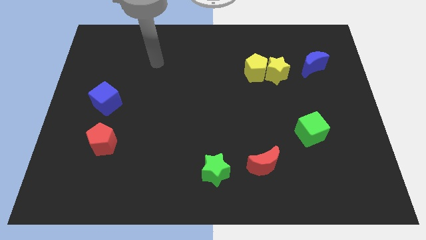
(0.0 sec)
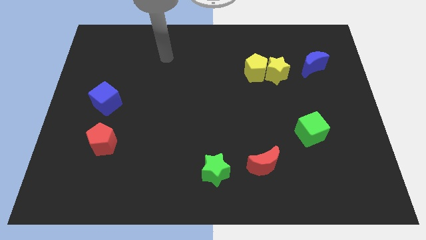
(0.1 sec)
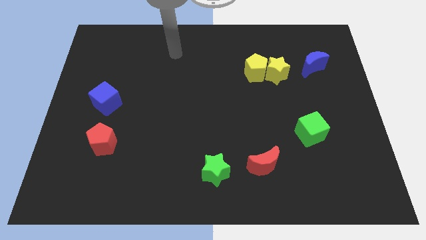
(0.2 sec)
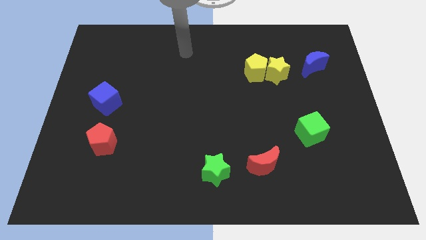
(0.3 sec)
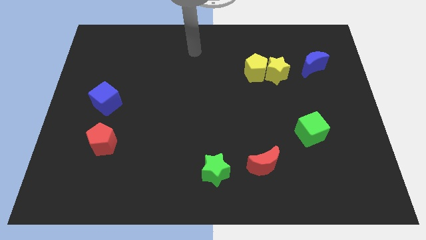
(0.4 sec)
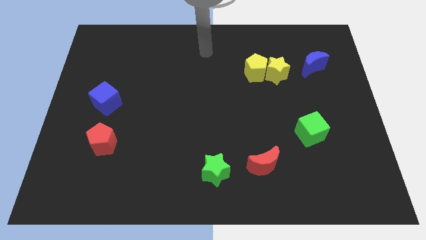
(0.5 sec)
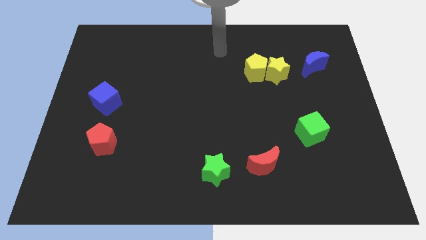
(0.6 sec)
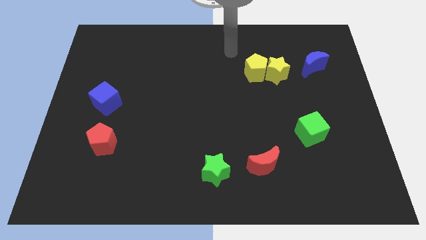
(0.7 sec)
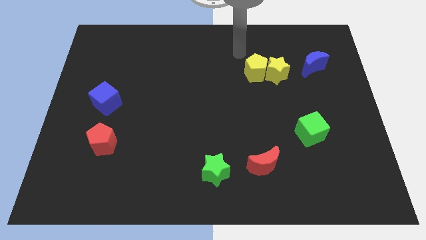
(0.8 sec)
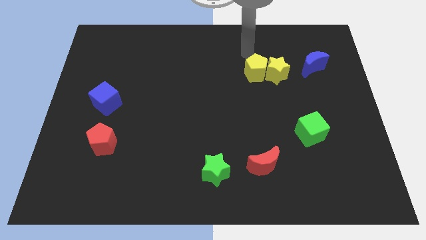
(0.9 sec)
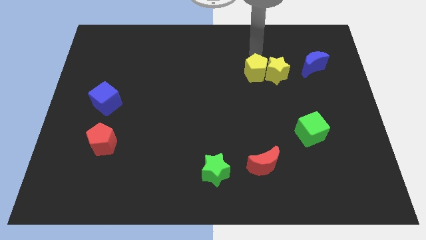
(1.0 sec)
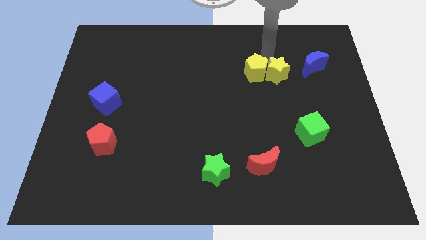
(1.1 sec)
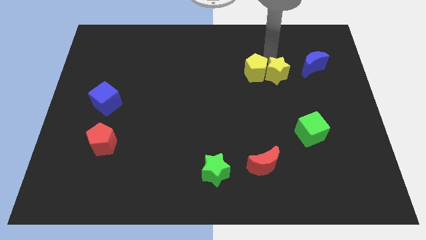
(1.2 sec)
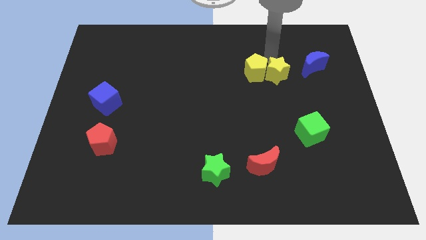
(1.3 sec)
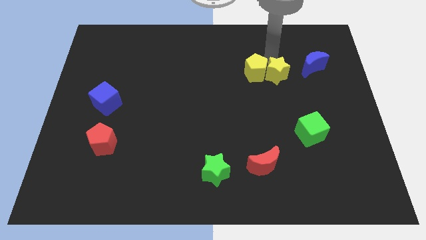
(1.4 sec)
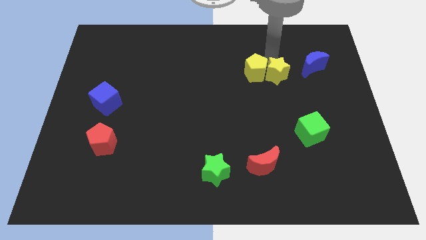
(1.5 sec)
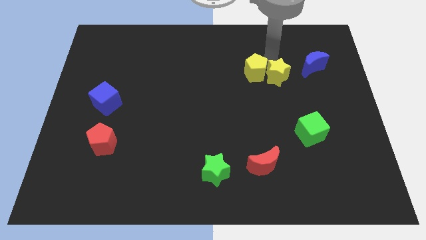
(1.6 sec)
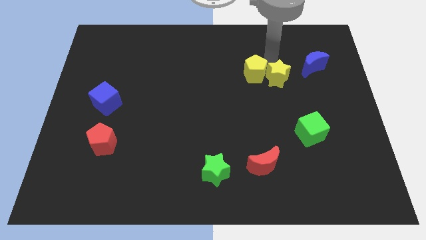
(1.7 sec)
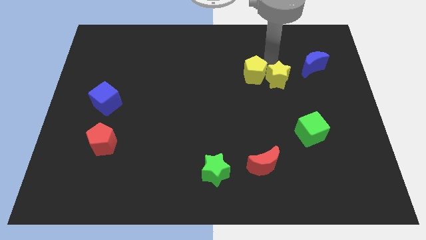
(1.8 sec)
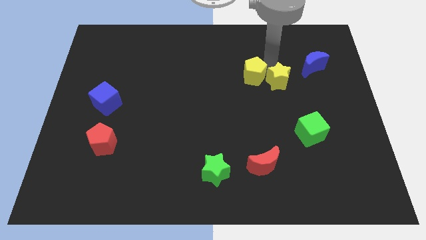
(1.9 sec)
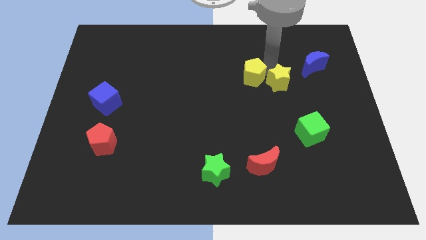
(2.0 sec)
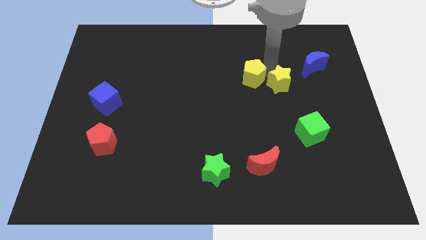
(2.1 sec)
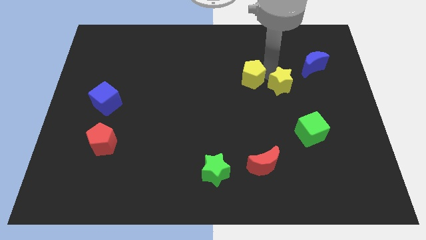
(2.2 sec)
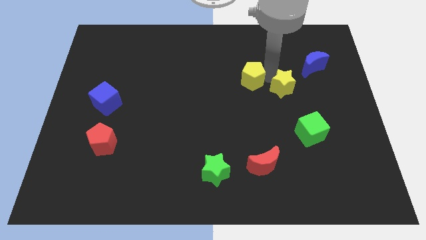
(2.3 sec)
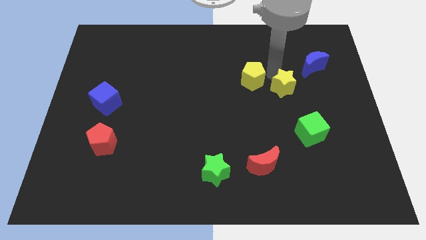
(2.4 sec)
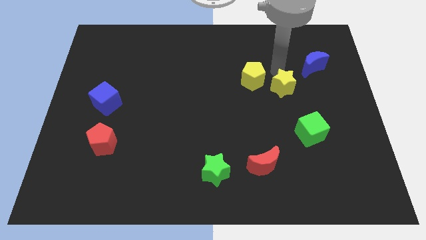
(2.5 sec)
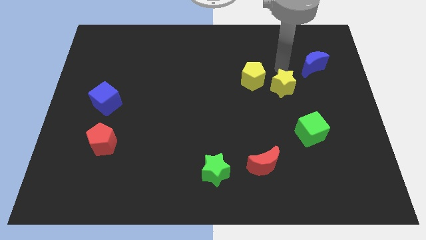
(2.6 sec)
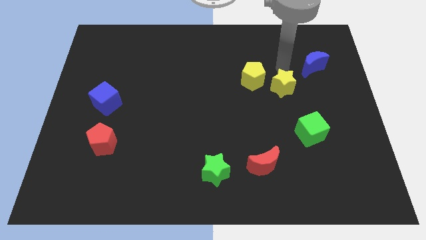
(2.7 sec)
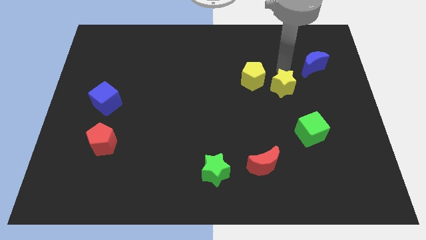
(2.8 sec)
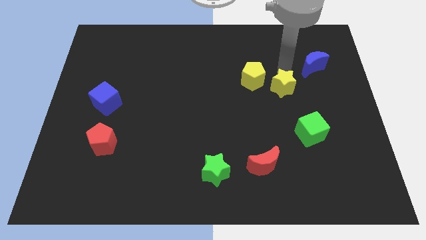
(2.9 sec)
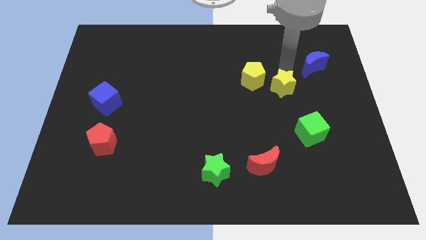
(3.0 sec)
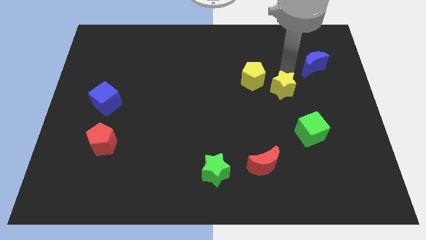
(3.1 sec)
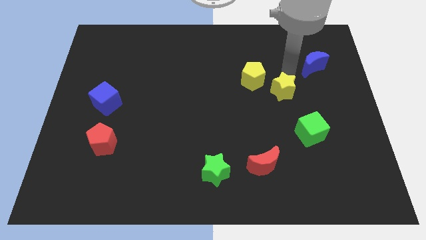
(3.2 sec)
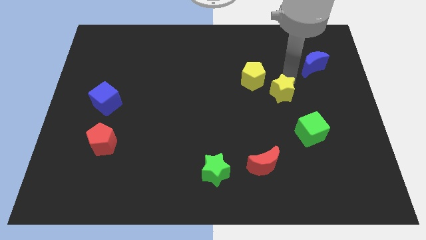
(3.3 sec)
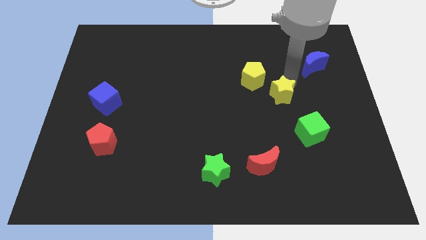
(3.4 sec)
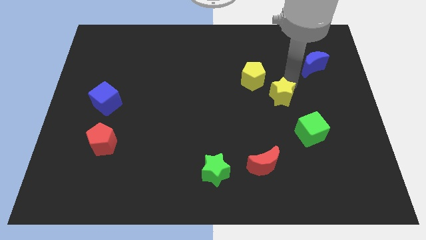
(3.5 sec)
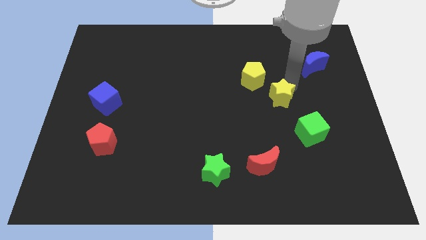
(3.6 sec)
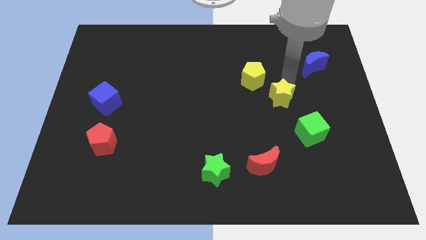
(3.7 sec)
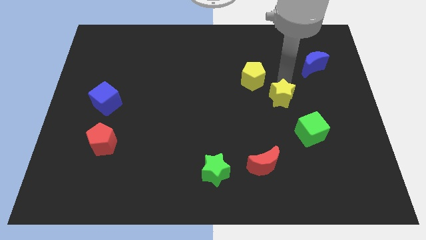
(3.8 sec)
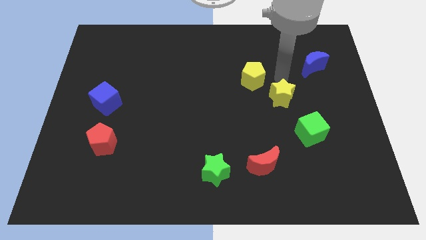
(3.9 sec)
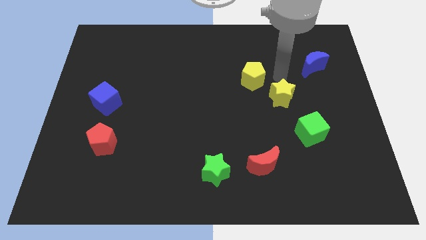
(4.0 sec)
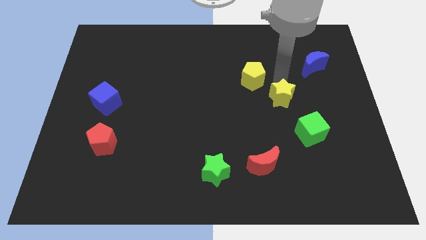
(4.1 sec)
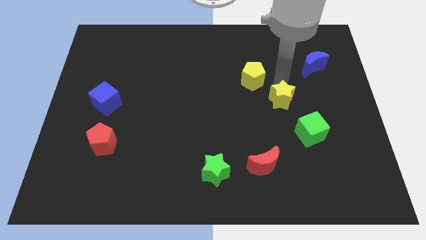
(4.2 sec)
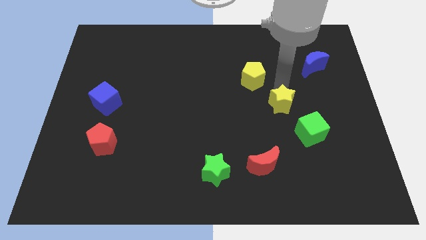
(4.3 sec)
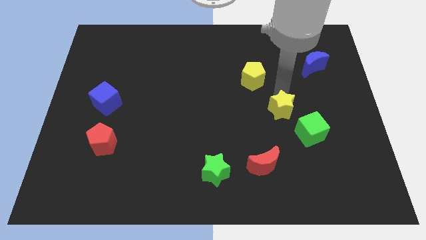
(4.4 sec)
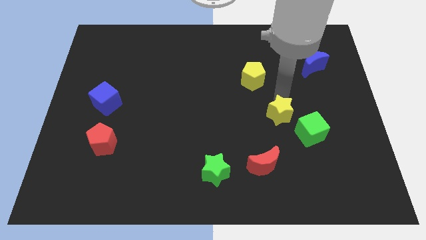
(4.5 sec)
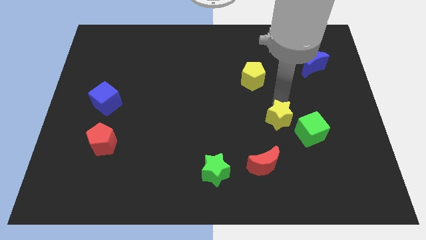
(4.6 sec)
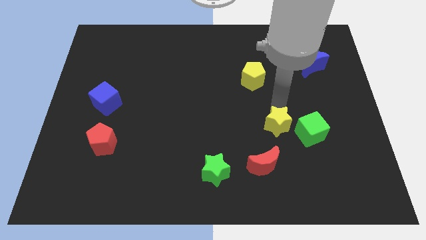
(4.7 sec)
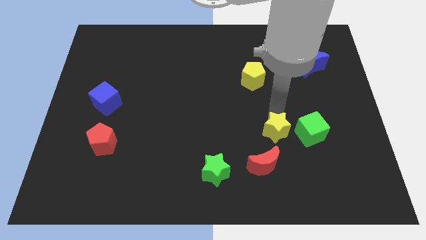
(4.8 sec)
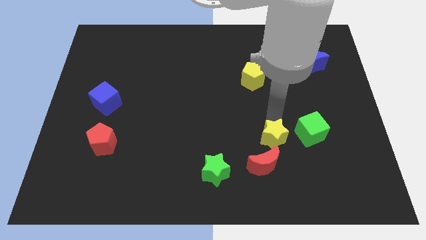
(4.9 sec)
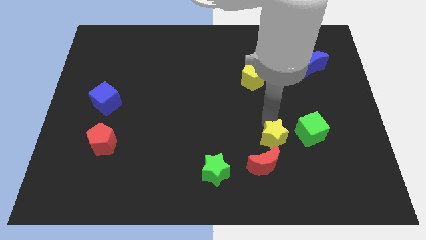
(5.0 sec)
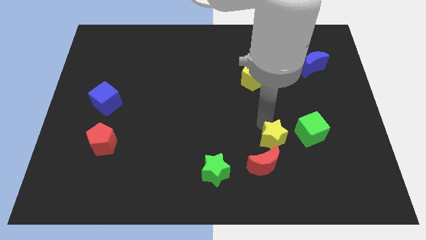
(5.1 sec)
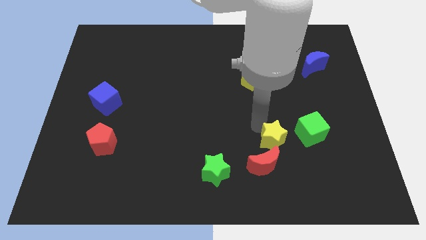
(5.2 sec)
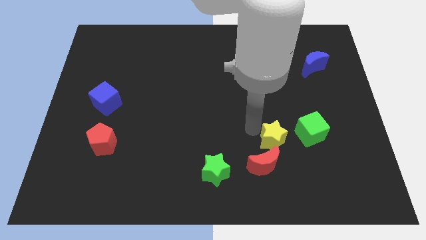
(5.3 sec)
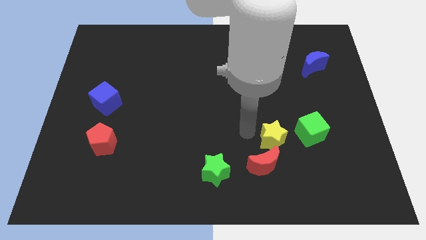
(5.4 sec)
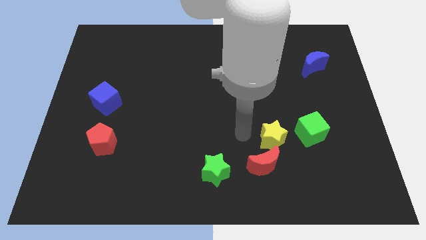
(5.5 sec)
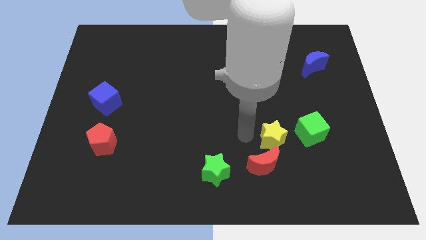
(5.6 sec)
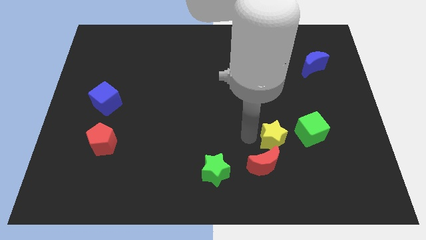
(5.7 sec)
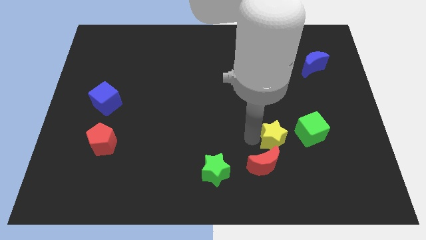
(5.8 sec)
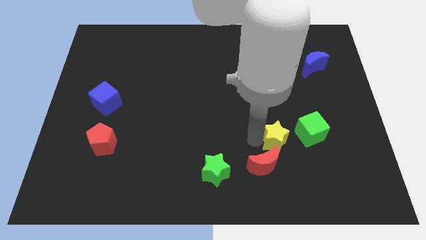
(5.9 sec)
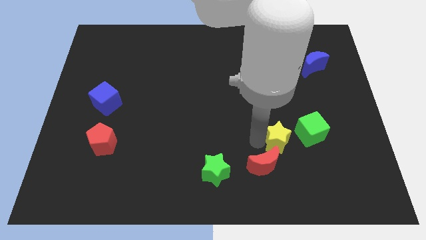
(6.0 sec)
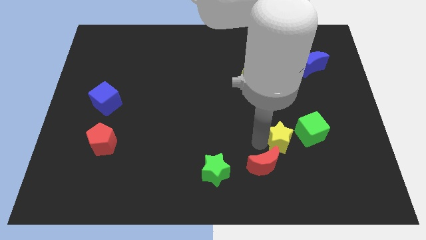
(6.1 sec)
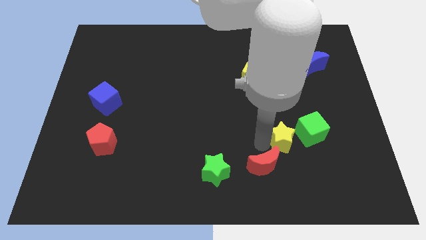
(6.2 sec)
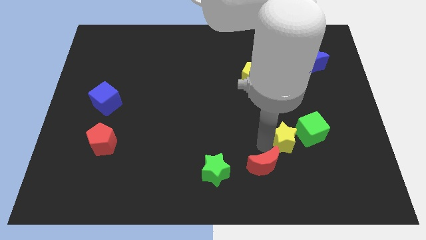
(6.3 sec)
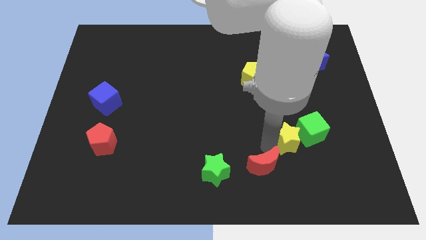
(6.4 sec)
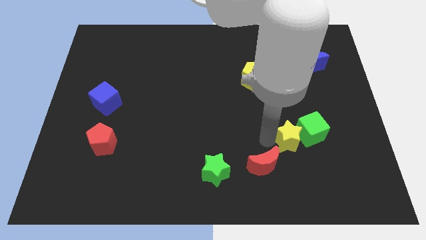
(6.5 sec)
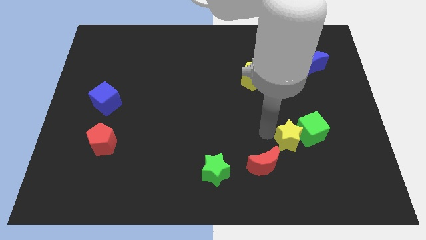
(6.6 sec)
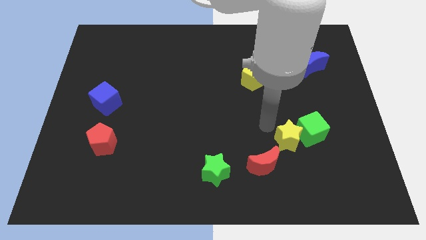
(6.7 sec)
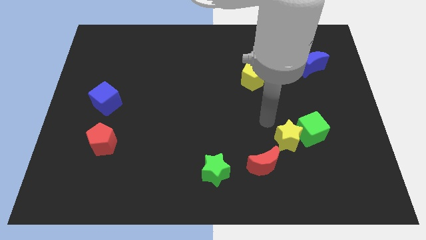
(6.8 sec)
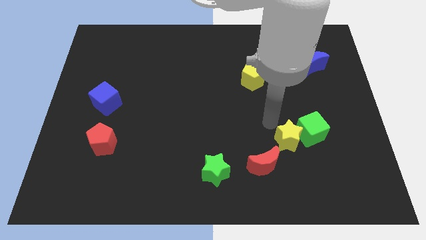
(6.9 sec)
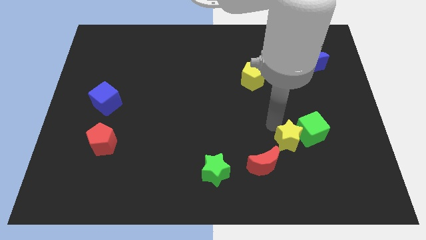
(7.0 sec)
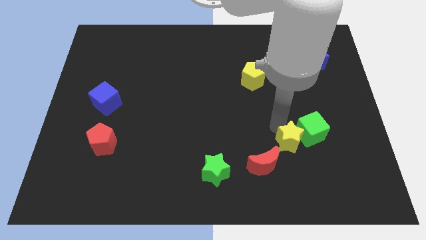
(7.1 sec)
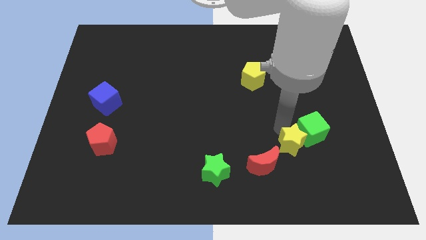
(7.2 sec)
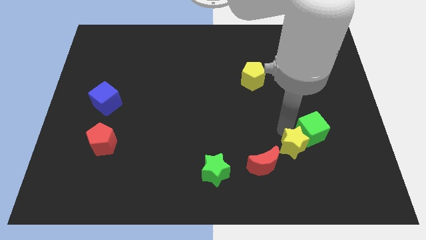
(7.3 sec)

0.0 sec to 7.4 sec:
move the yellow star to the right side of the red moon

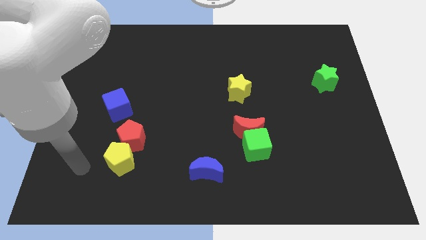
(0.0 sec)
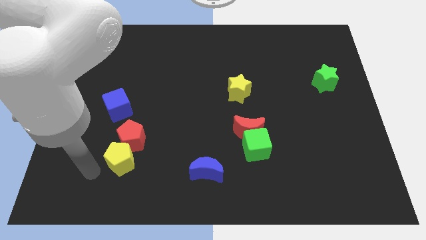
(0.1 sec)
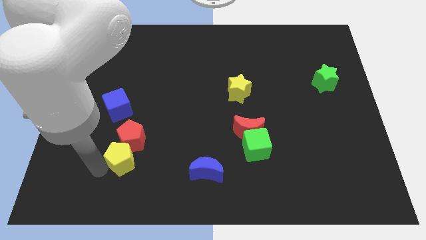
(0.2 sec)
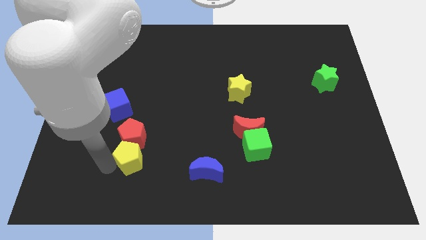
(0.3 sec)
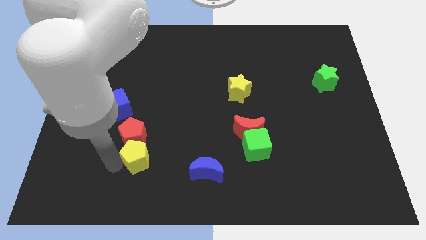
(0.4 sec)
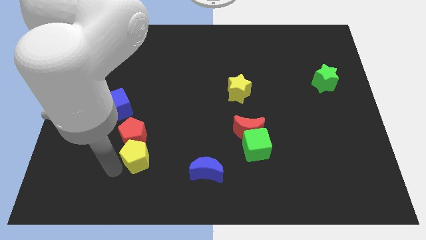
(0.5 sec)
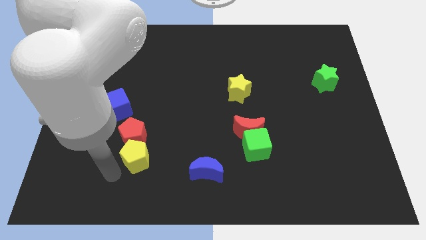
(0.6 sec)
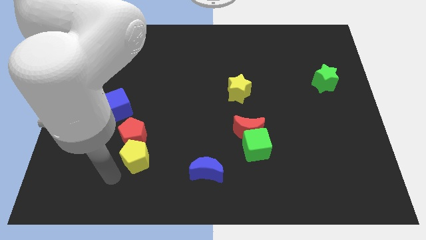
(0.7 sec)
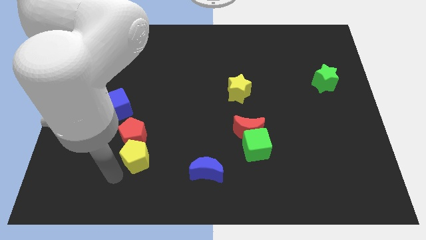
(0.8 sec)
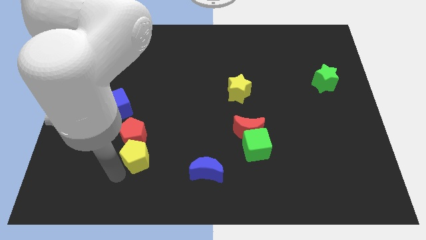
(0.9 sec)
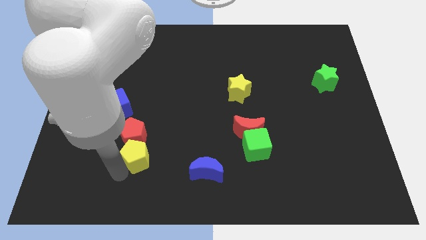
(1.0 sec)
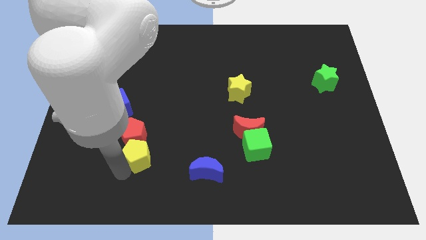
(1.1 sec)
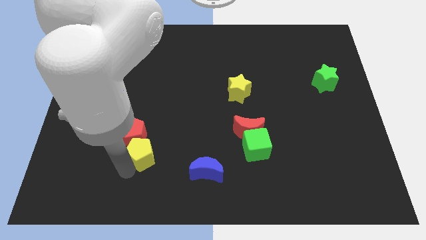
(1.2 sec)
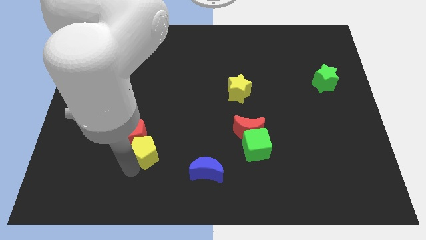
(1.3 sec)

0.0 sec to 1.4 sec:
move the yellow pentagon to the right of the red pentagon
